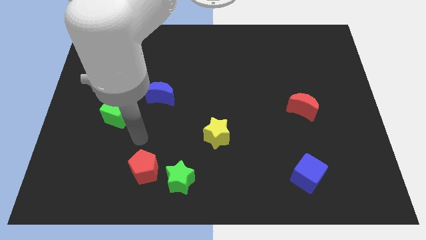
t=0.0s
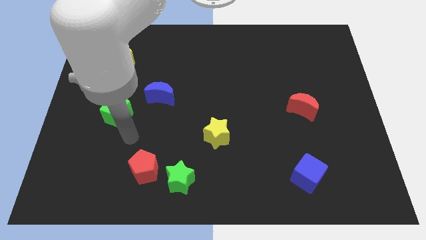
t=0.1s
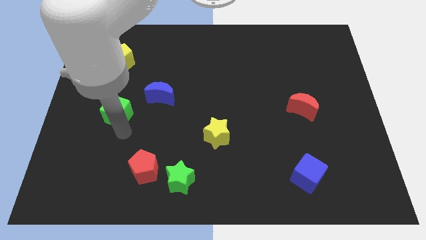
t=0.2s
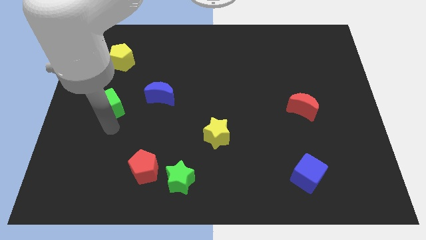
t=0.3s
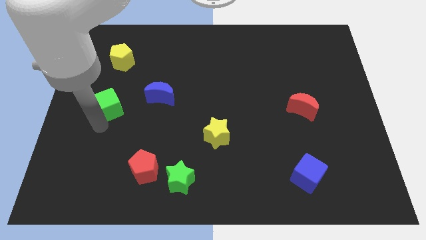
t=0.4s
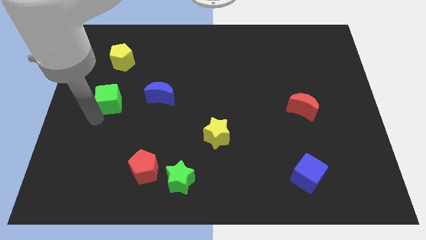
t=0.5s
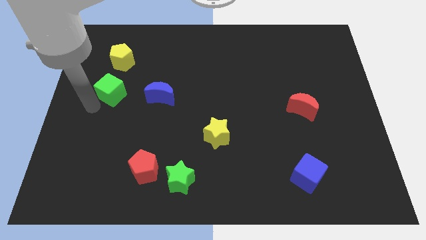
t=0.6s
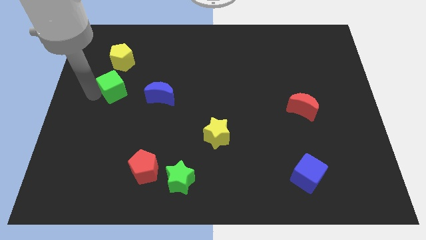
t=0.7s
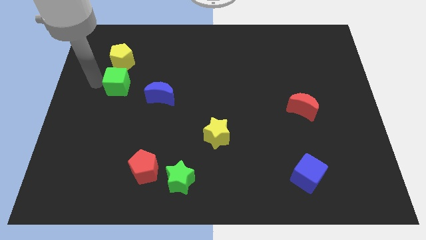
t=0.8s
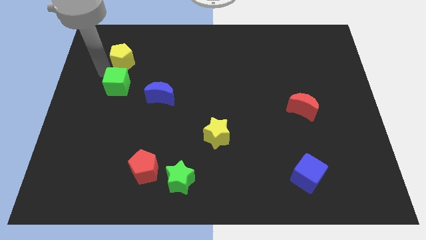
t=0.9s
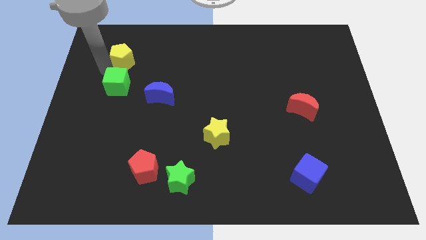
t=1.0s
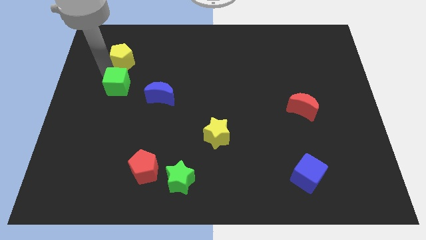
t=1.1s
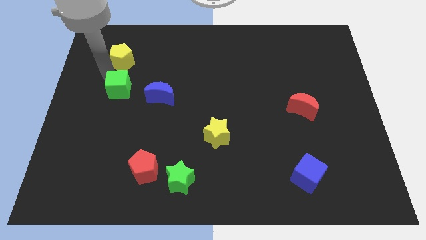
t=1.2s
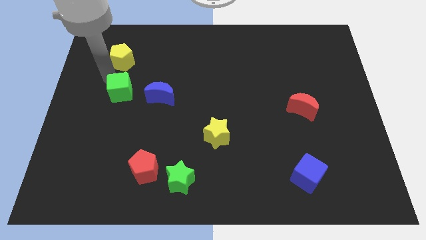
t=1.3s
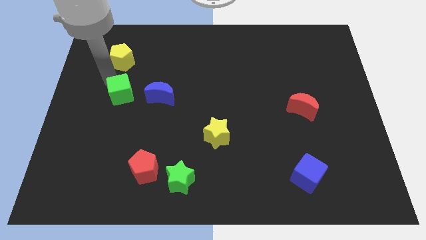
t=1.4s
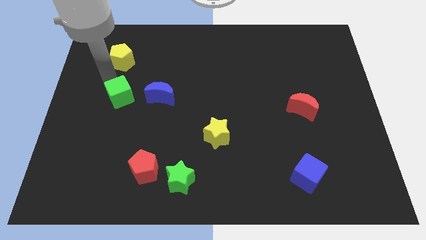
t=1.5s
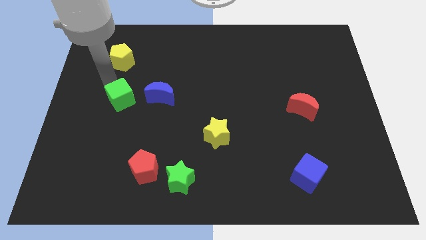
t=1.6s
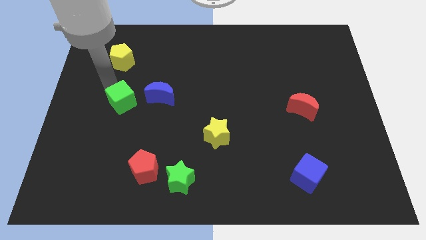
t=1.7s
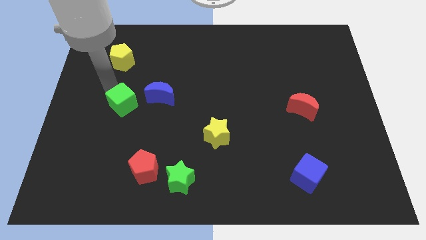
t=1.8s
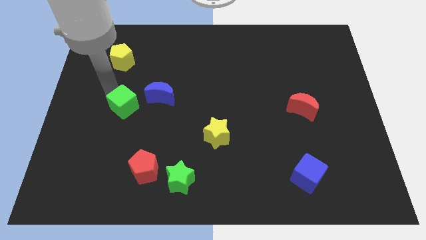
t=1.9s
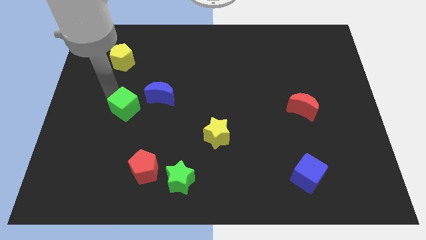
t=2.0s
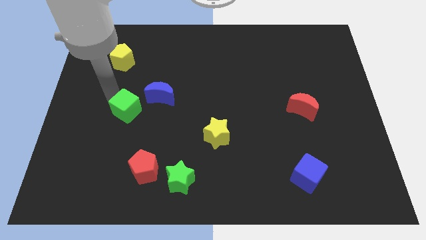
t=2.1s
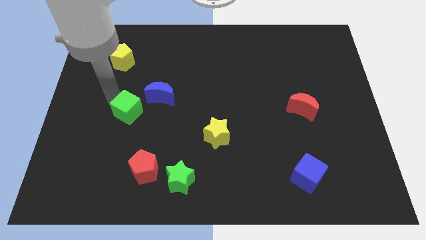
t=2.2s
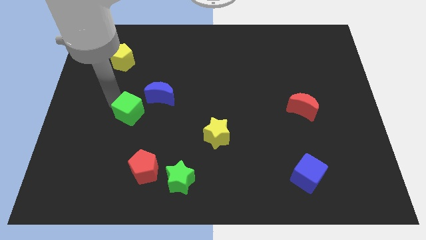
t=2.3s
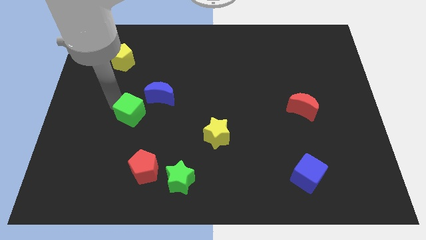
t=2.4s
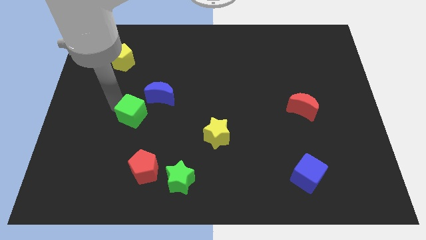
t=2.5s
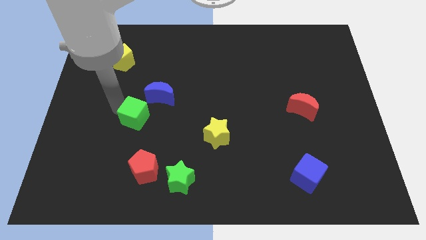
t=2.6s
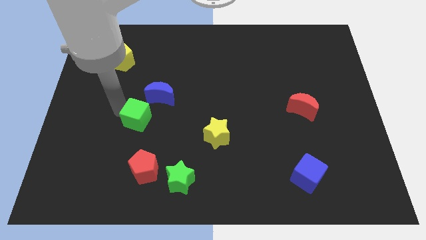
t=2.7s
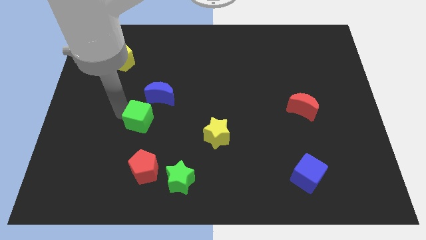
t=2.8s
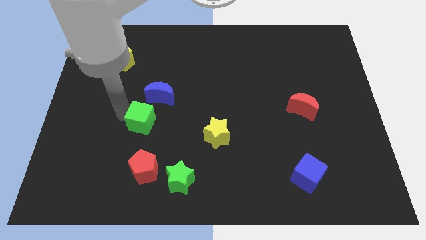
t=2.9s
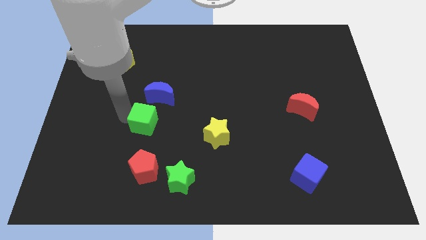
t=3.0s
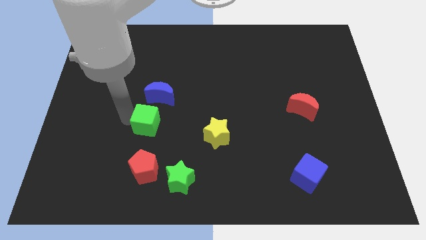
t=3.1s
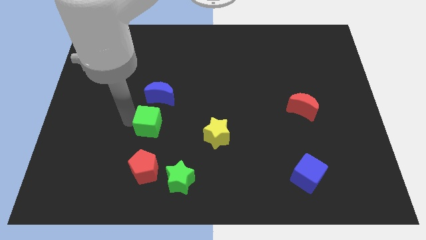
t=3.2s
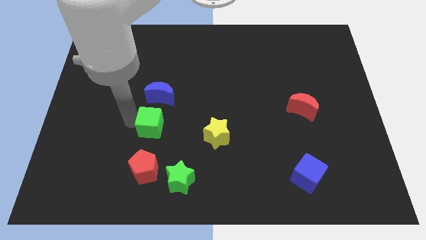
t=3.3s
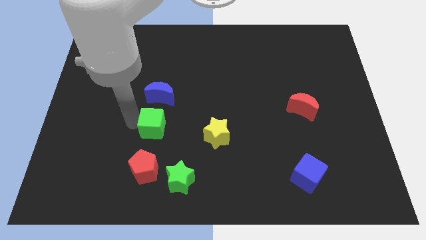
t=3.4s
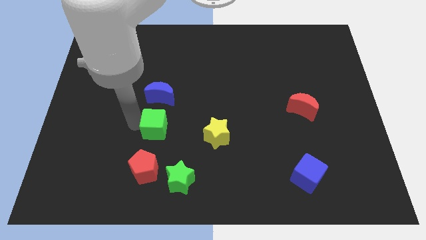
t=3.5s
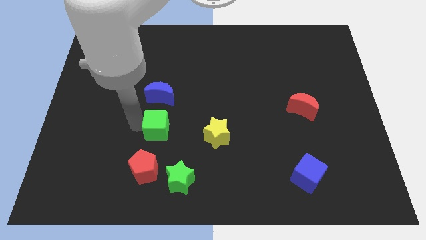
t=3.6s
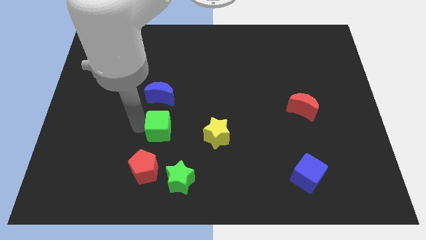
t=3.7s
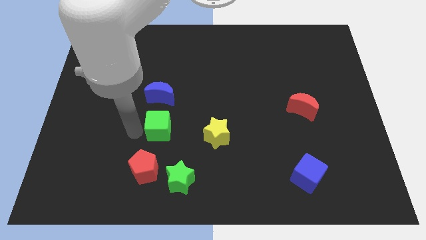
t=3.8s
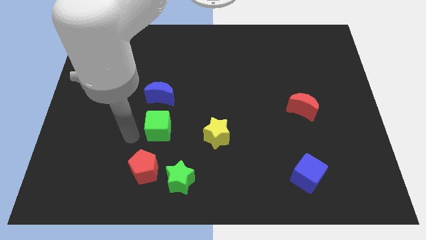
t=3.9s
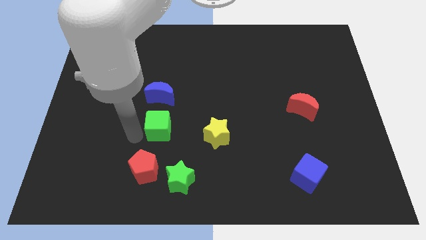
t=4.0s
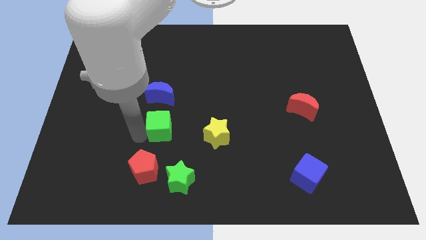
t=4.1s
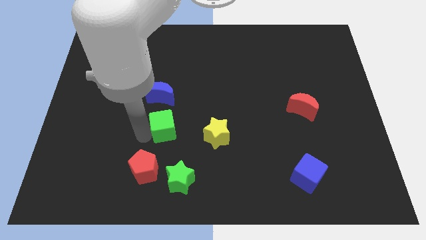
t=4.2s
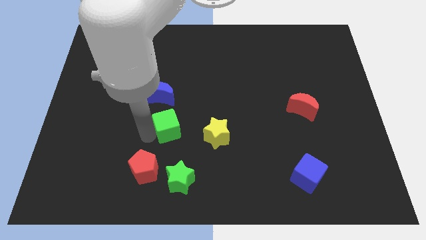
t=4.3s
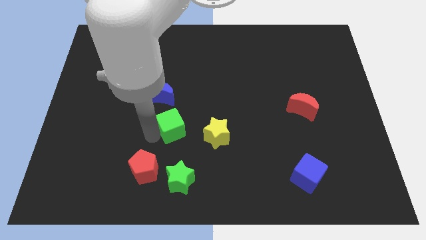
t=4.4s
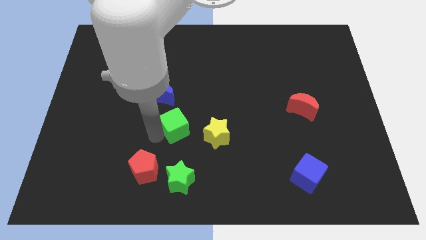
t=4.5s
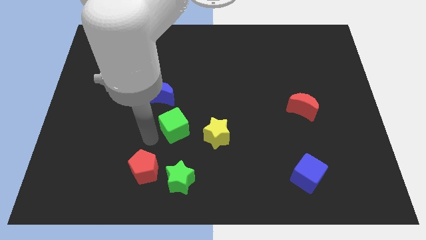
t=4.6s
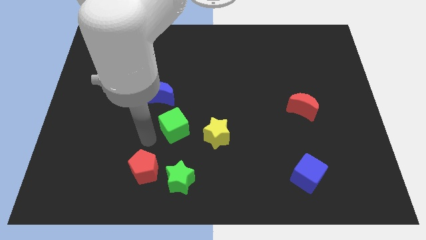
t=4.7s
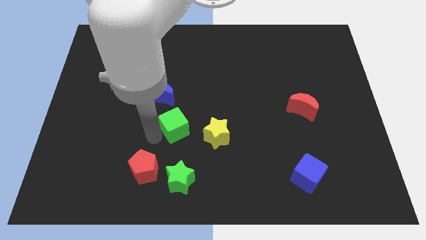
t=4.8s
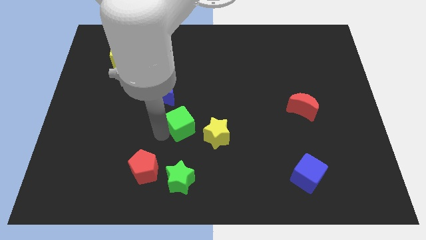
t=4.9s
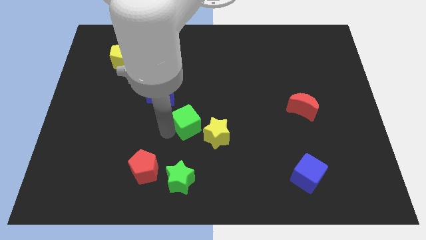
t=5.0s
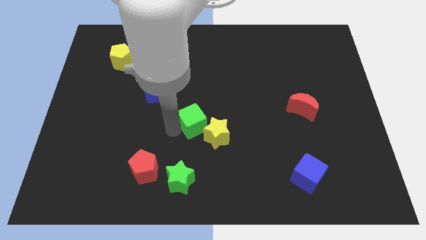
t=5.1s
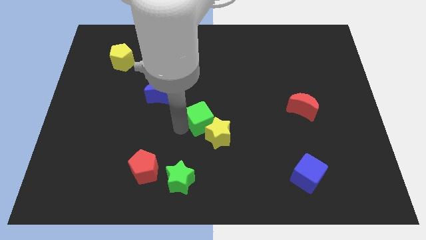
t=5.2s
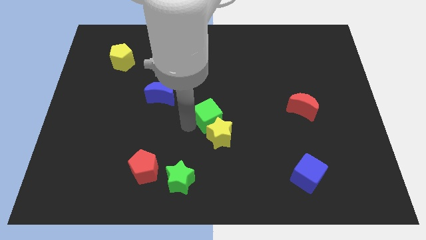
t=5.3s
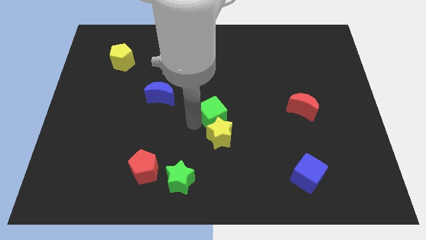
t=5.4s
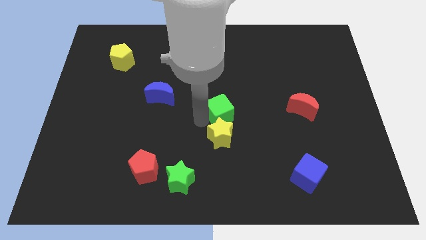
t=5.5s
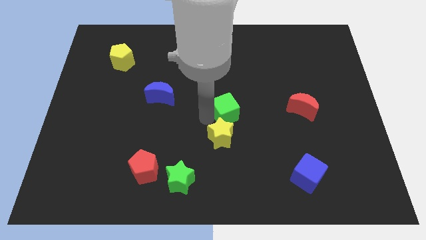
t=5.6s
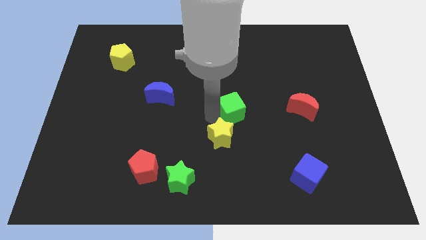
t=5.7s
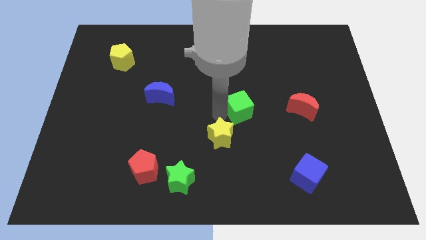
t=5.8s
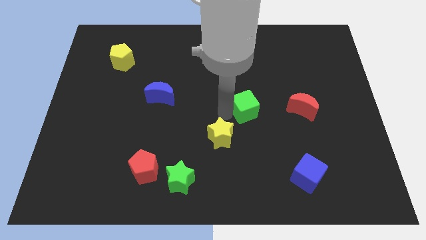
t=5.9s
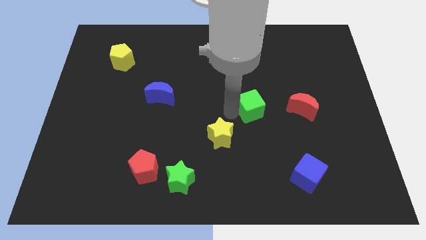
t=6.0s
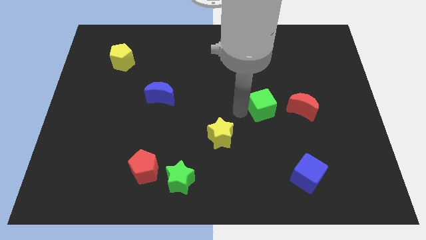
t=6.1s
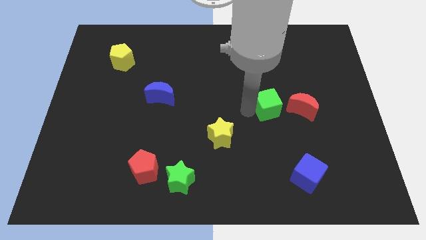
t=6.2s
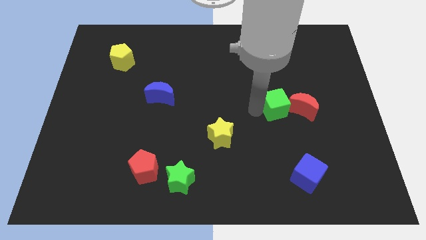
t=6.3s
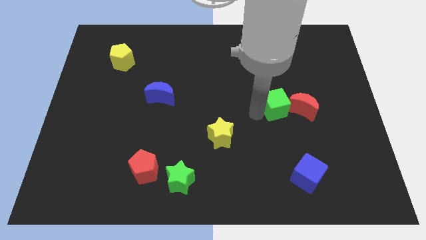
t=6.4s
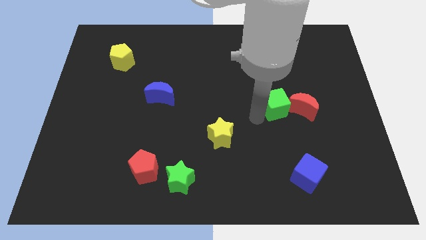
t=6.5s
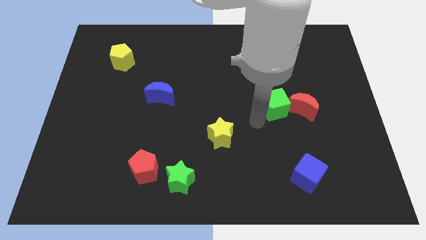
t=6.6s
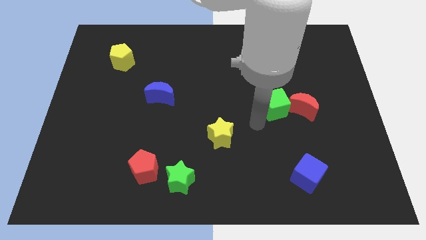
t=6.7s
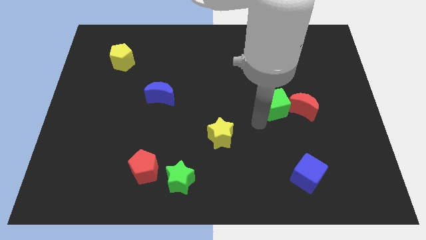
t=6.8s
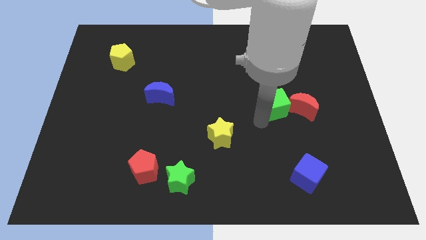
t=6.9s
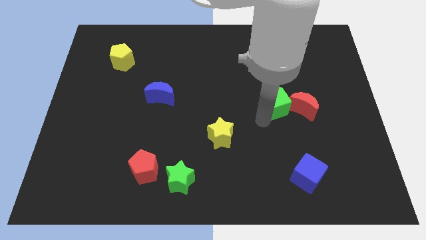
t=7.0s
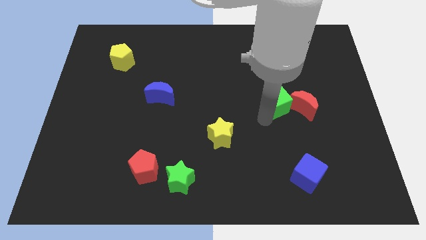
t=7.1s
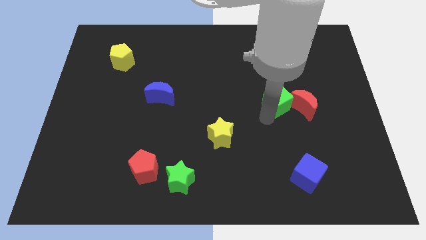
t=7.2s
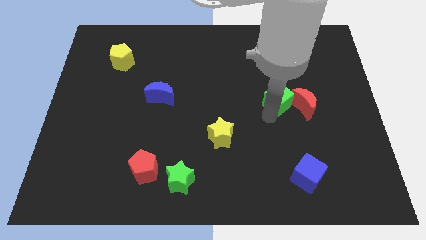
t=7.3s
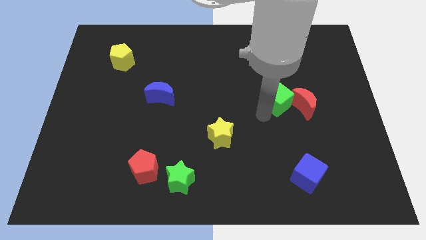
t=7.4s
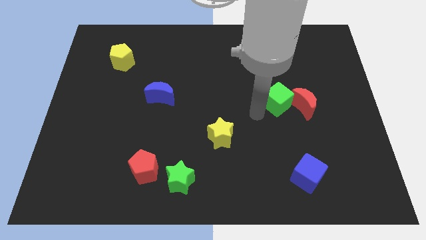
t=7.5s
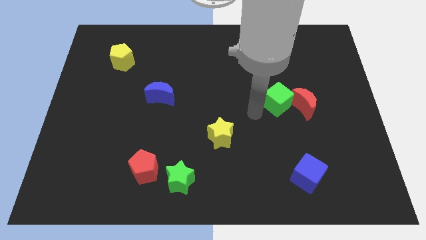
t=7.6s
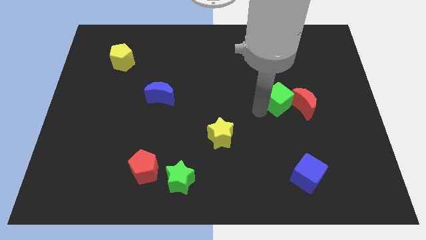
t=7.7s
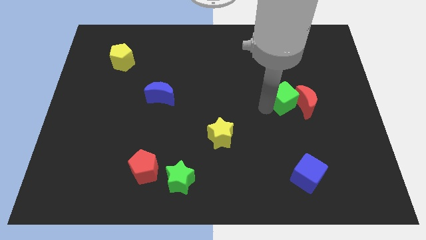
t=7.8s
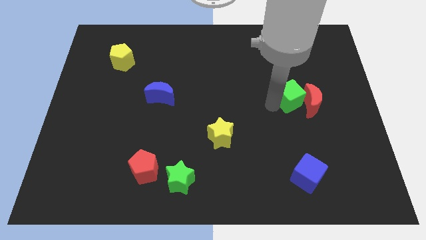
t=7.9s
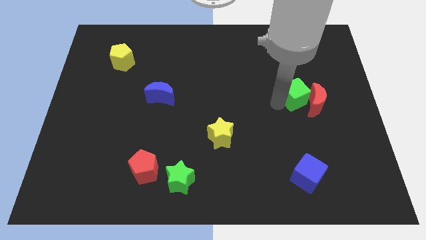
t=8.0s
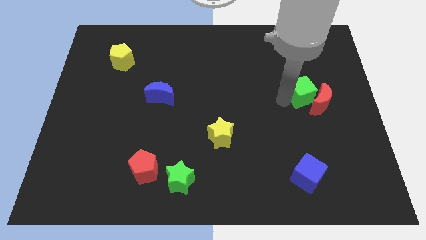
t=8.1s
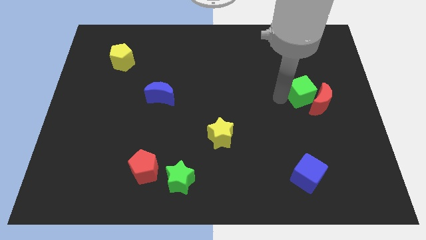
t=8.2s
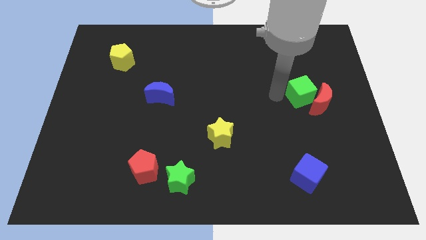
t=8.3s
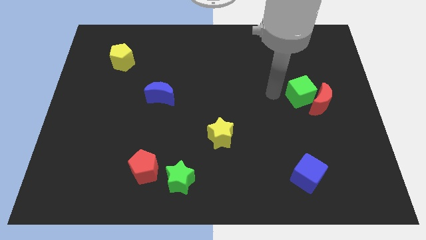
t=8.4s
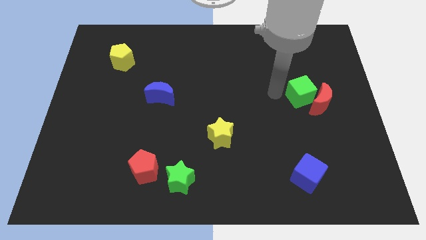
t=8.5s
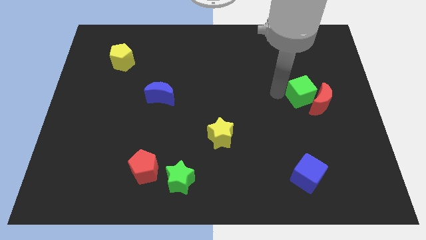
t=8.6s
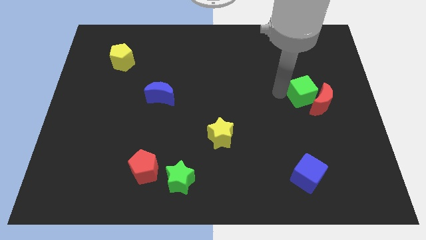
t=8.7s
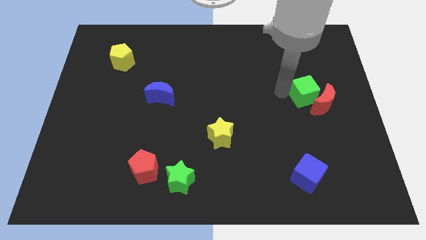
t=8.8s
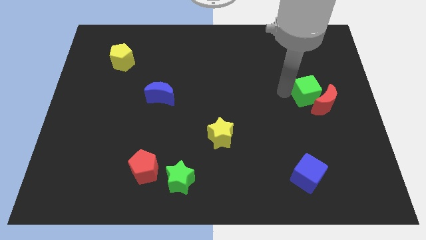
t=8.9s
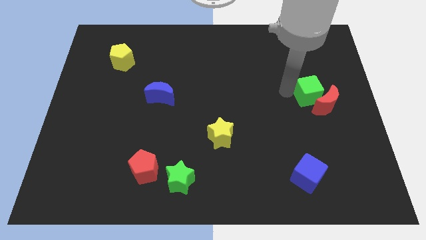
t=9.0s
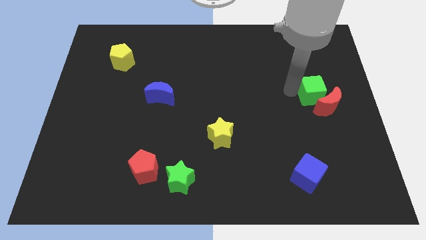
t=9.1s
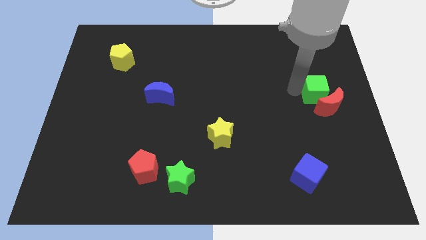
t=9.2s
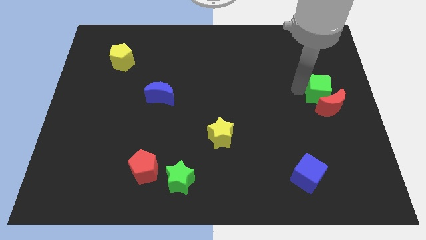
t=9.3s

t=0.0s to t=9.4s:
put the green cube to the right side
